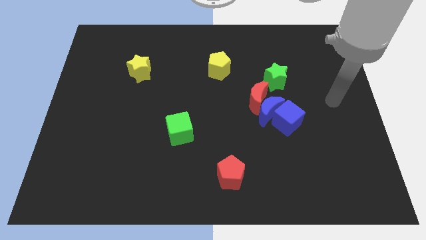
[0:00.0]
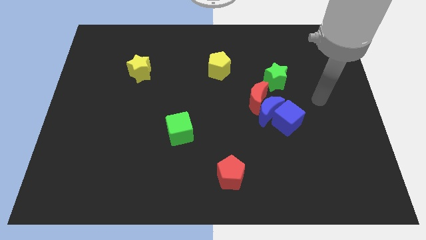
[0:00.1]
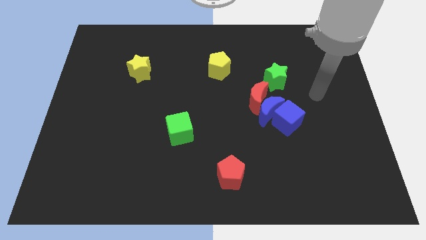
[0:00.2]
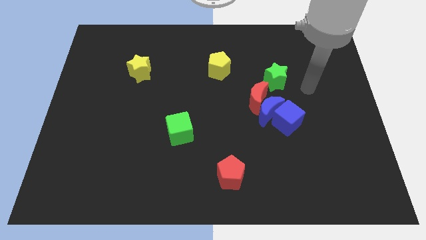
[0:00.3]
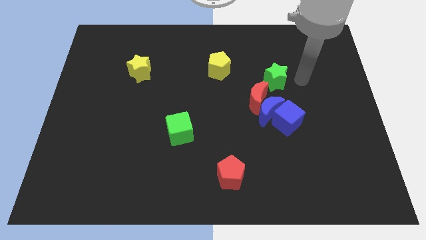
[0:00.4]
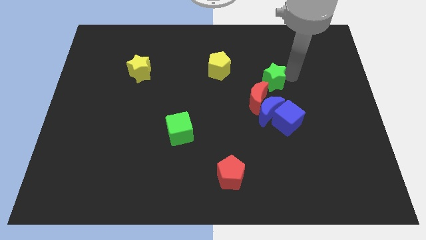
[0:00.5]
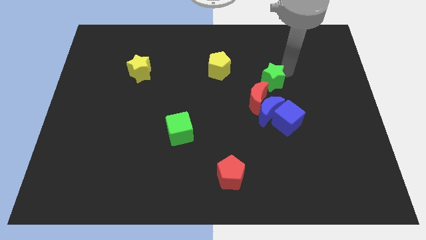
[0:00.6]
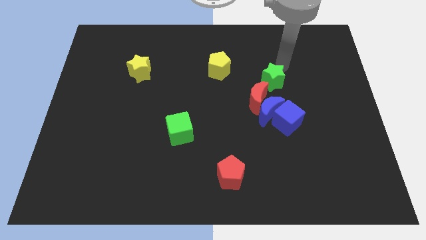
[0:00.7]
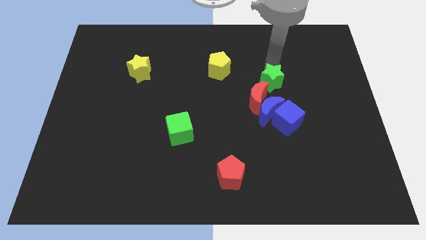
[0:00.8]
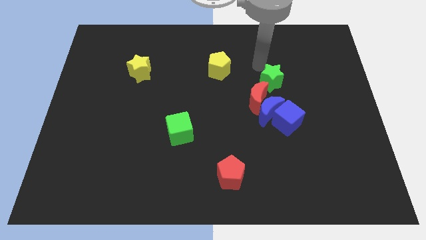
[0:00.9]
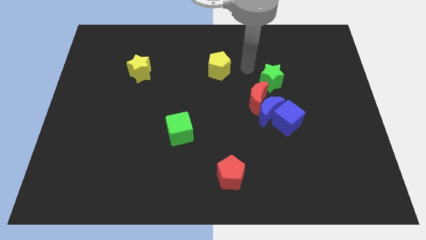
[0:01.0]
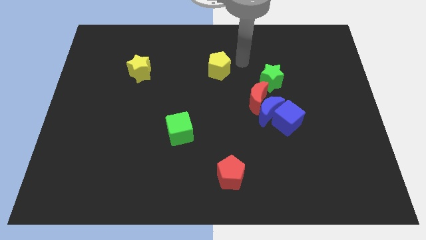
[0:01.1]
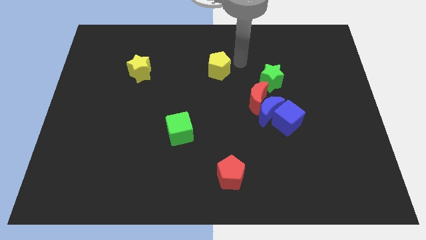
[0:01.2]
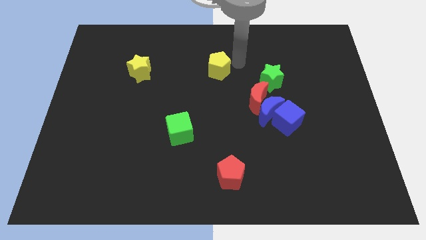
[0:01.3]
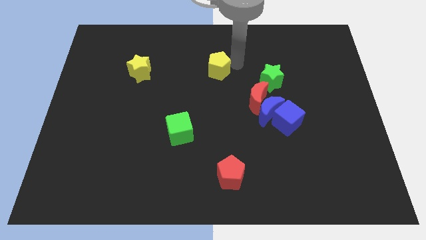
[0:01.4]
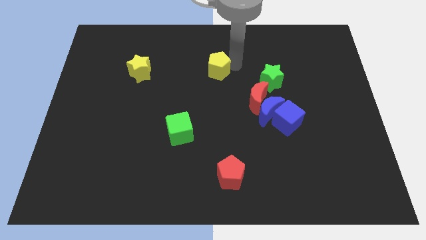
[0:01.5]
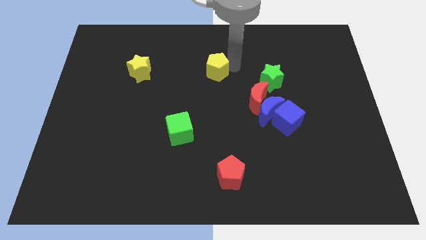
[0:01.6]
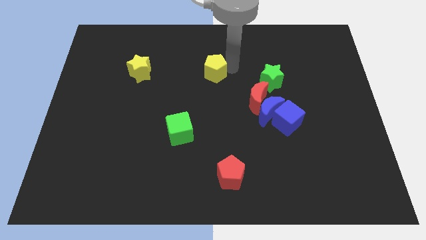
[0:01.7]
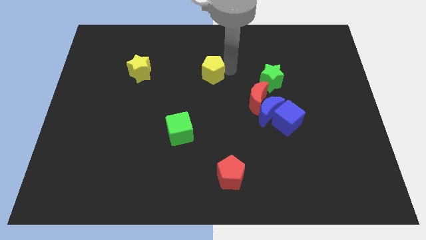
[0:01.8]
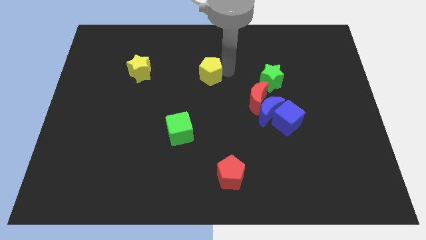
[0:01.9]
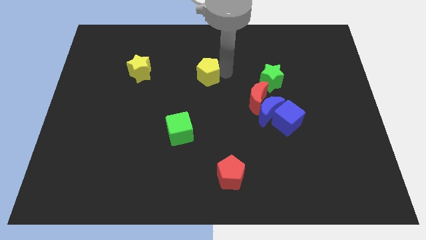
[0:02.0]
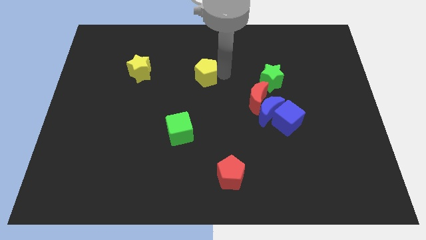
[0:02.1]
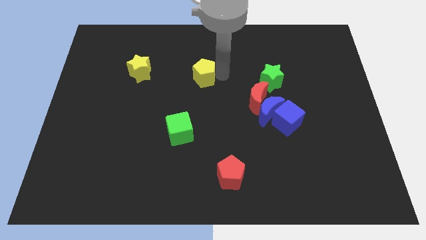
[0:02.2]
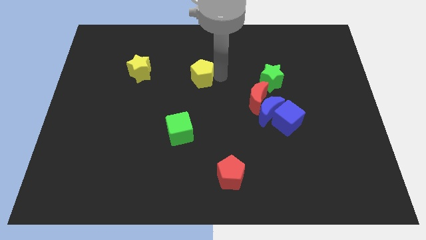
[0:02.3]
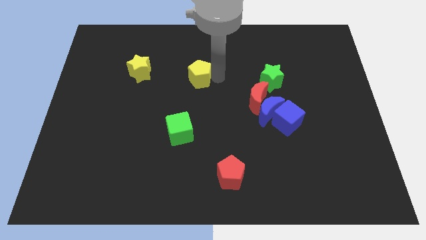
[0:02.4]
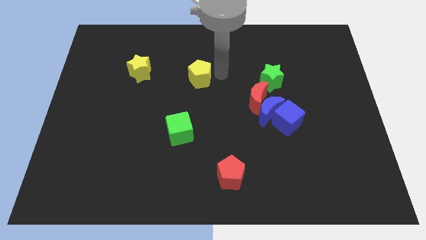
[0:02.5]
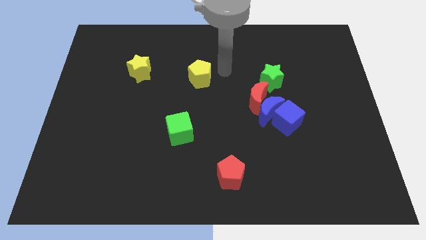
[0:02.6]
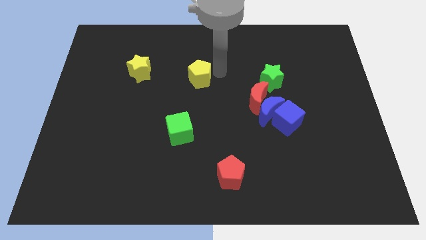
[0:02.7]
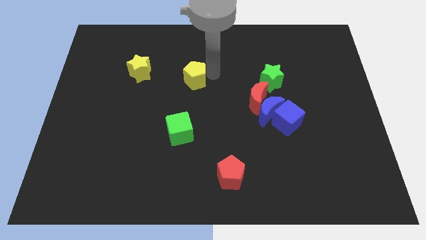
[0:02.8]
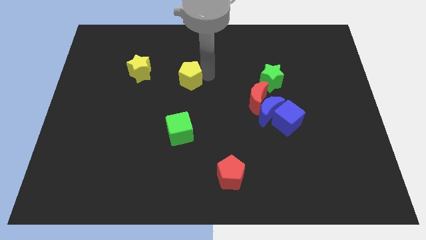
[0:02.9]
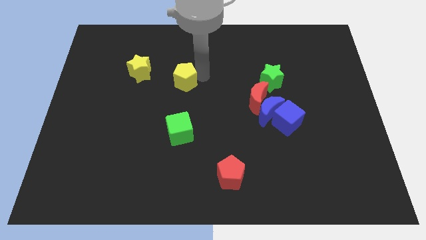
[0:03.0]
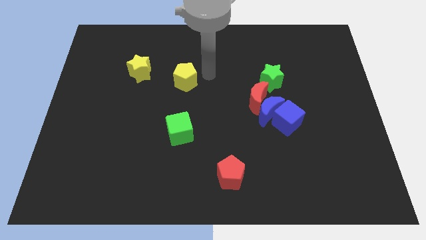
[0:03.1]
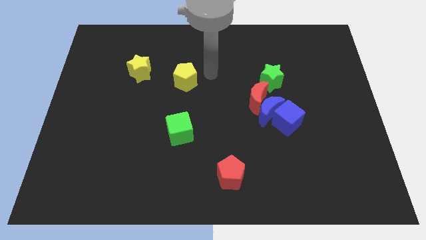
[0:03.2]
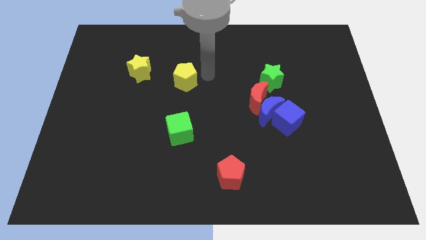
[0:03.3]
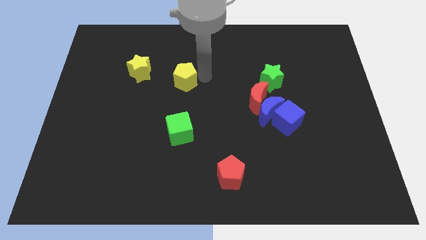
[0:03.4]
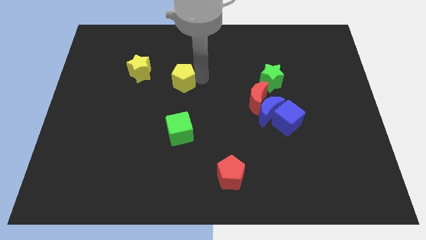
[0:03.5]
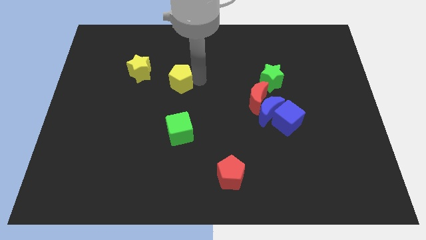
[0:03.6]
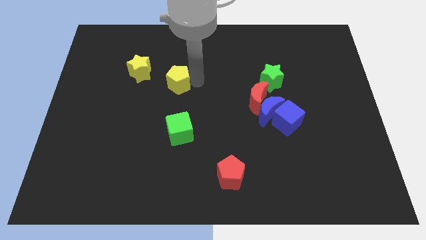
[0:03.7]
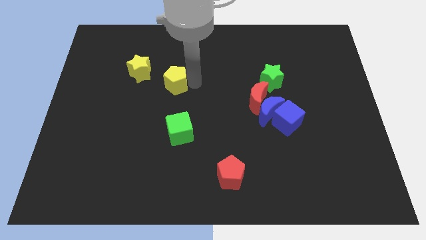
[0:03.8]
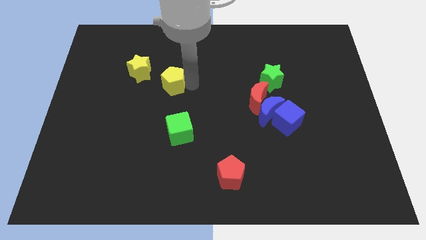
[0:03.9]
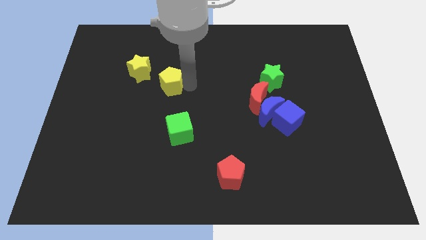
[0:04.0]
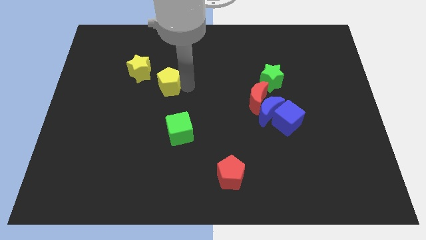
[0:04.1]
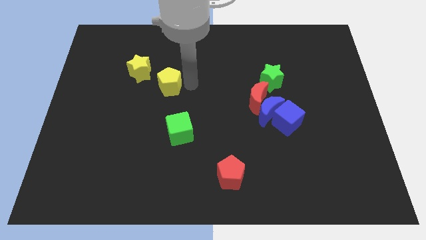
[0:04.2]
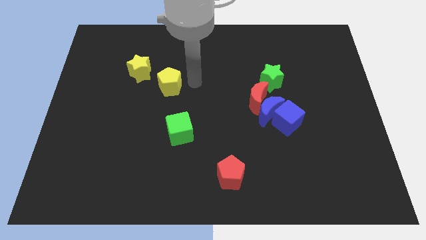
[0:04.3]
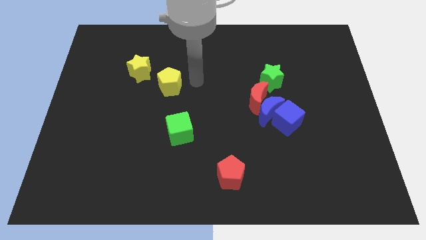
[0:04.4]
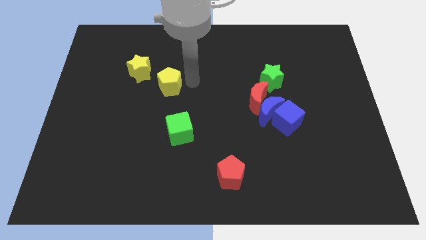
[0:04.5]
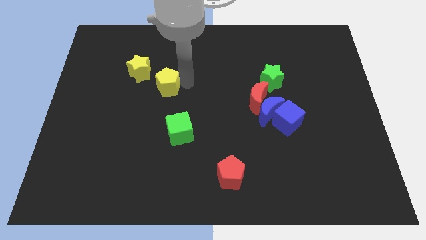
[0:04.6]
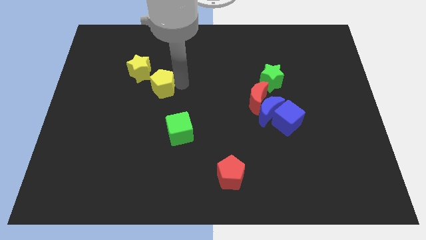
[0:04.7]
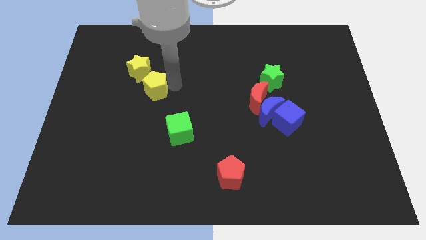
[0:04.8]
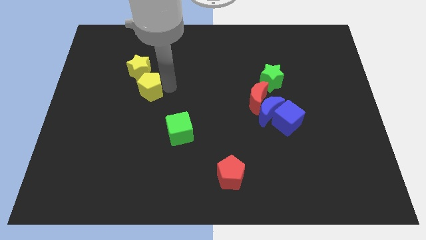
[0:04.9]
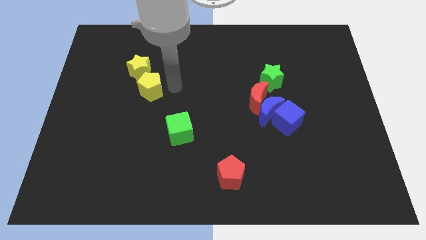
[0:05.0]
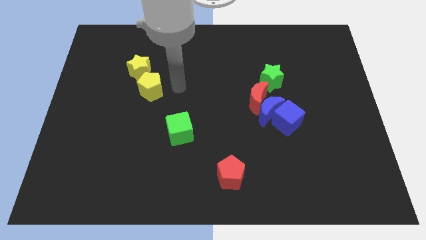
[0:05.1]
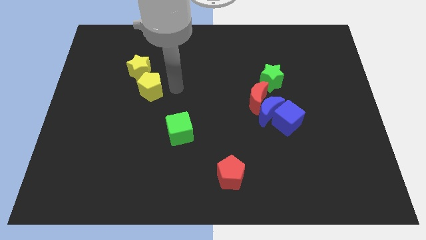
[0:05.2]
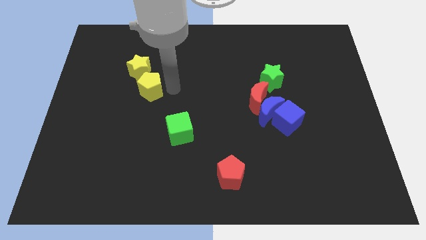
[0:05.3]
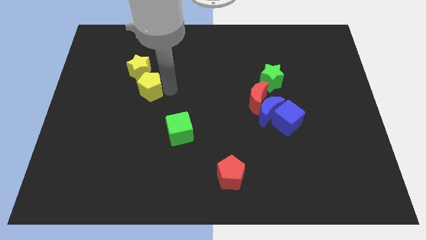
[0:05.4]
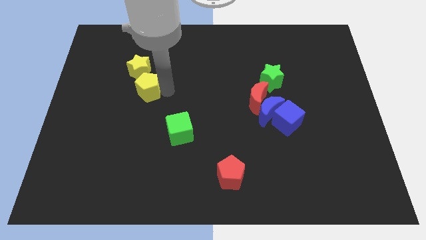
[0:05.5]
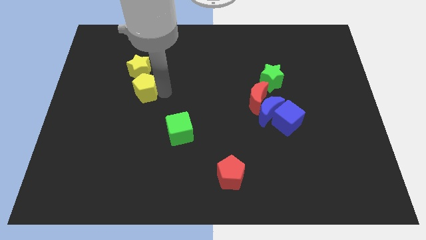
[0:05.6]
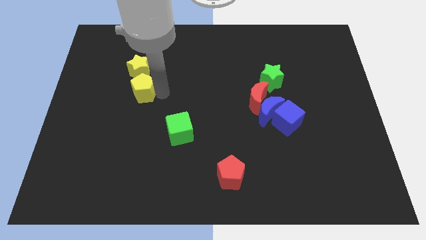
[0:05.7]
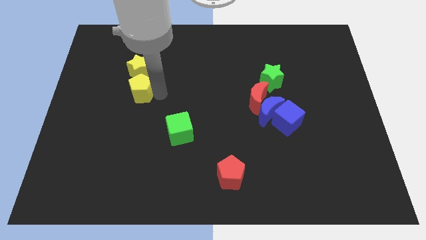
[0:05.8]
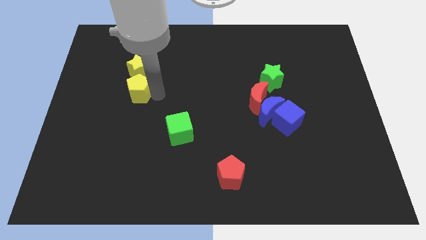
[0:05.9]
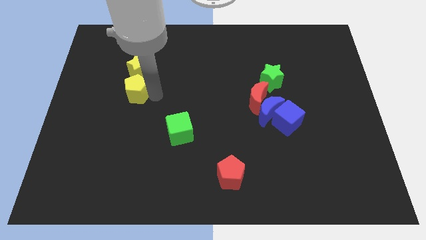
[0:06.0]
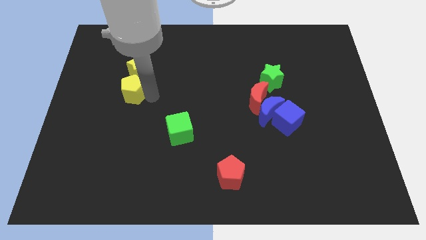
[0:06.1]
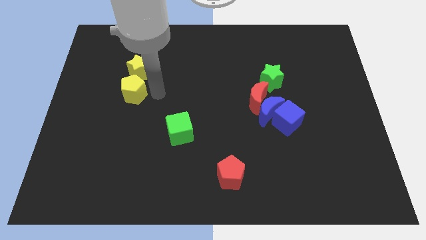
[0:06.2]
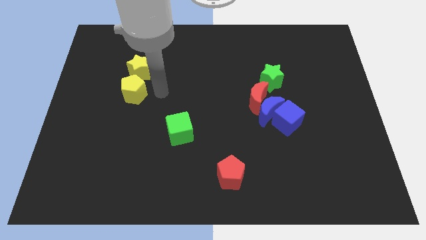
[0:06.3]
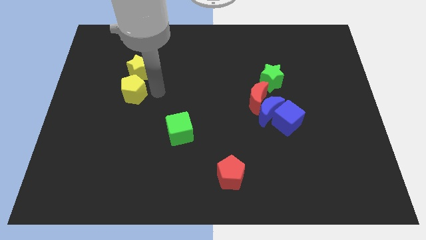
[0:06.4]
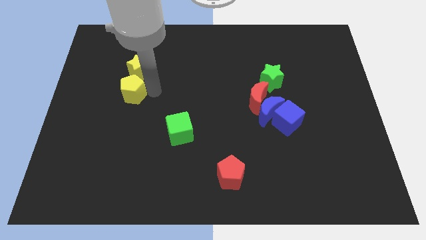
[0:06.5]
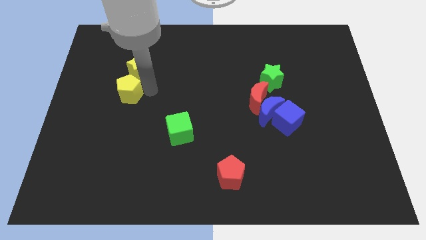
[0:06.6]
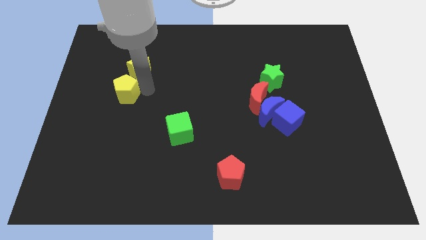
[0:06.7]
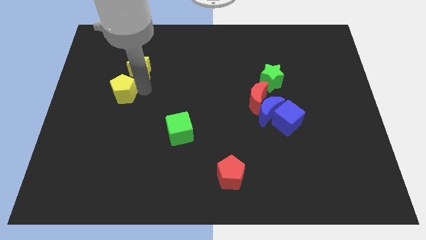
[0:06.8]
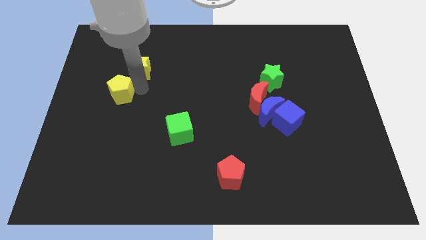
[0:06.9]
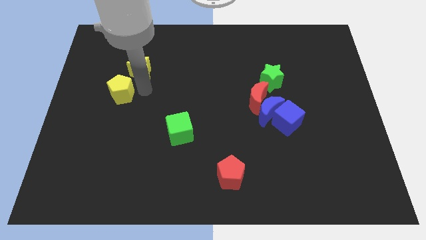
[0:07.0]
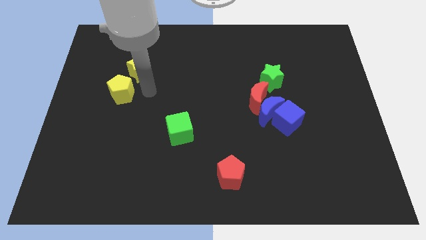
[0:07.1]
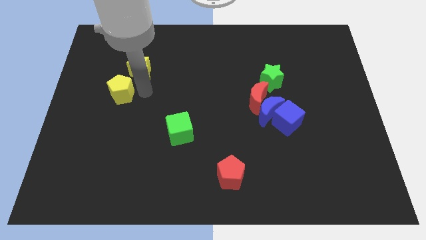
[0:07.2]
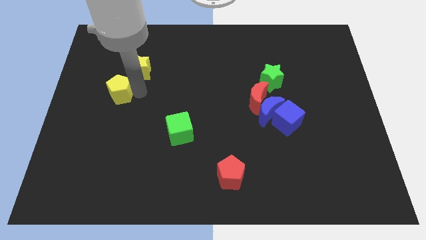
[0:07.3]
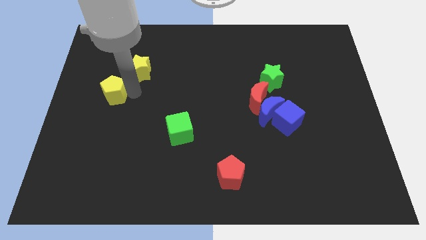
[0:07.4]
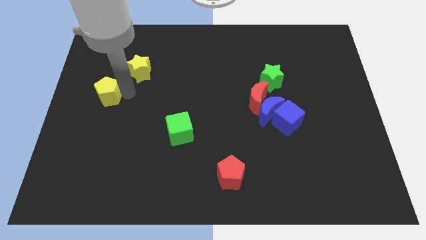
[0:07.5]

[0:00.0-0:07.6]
put the yellow pentagon to the center left
